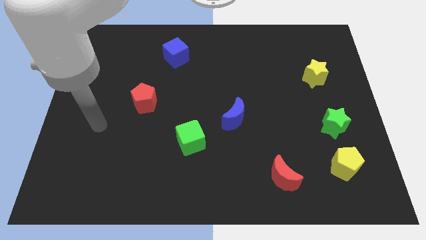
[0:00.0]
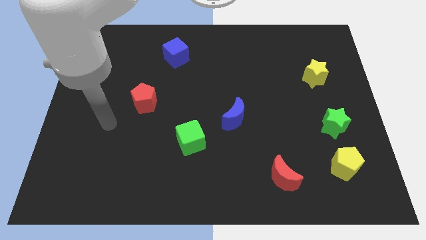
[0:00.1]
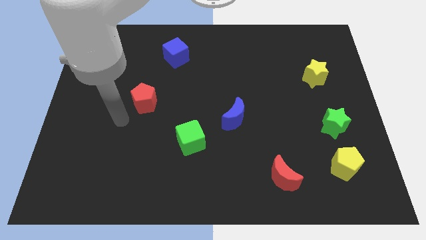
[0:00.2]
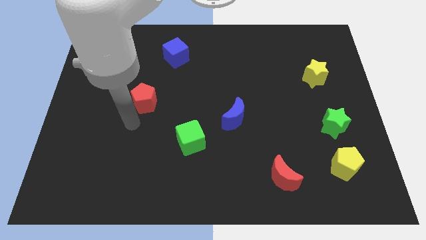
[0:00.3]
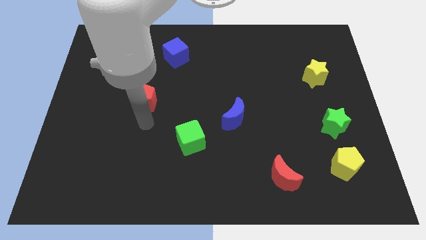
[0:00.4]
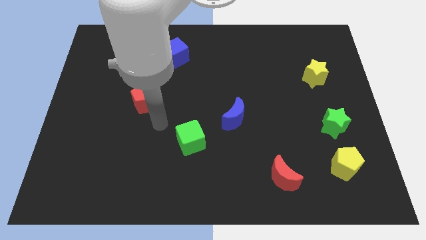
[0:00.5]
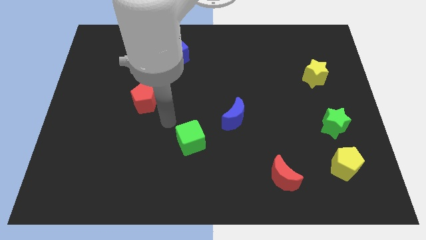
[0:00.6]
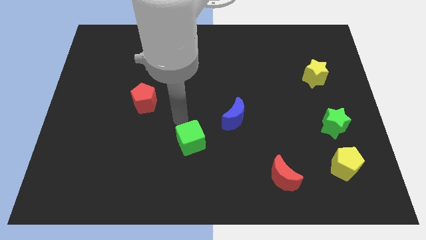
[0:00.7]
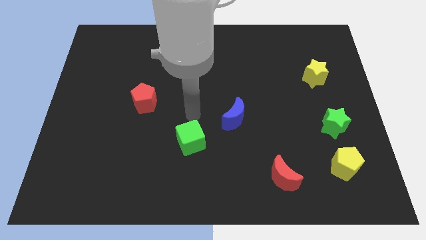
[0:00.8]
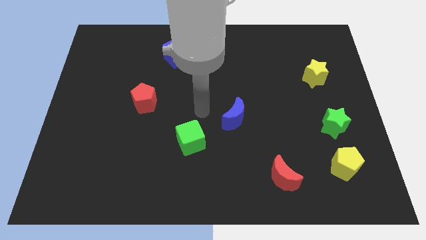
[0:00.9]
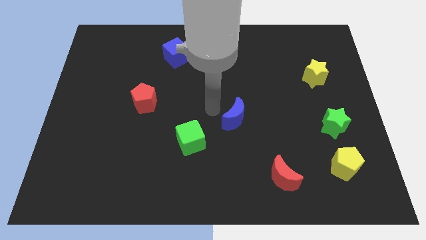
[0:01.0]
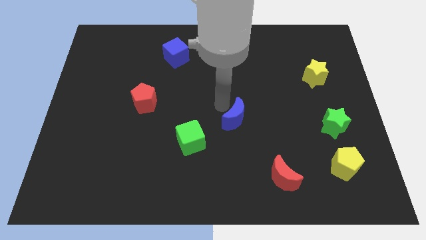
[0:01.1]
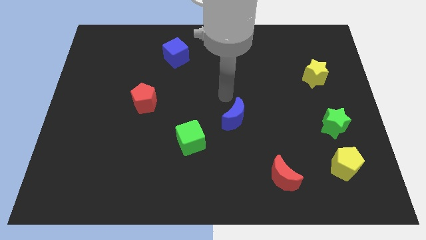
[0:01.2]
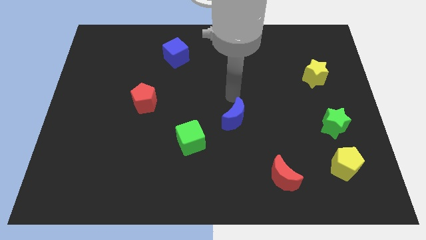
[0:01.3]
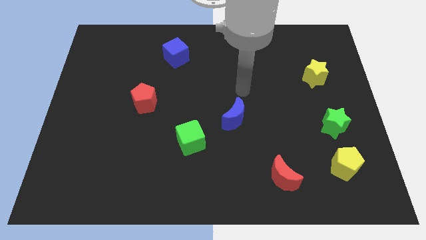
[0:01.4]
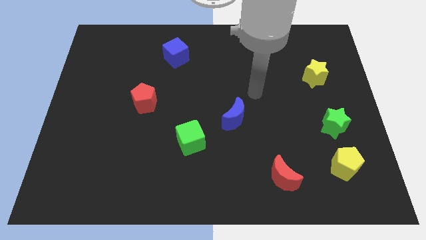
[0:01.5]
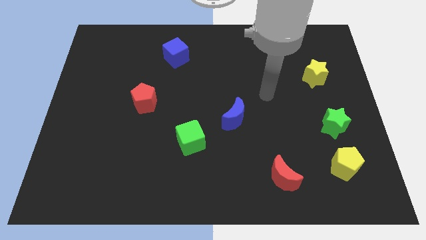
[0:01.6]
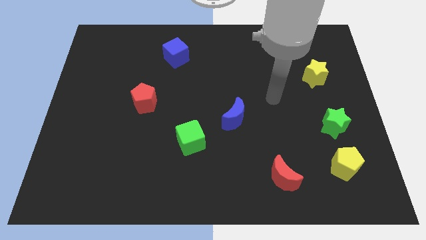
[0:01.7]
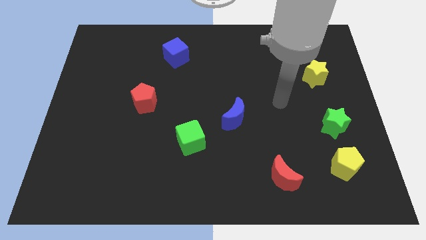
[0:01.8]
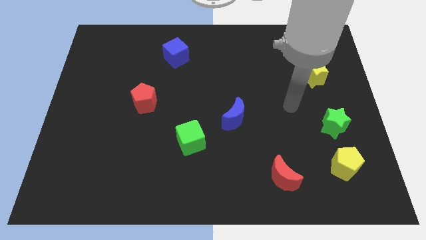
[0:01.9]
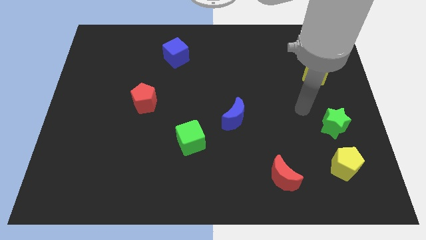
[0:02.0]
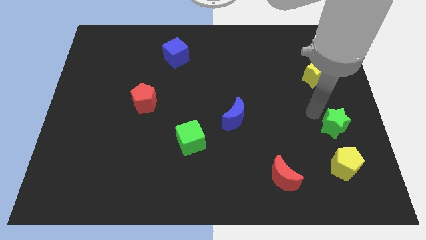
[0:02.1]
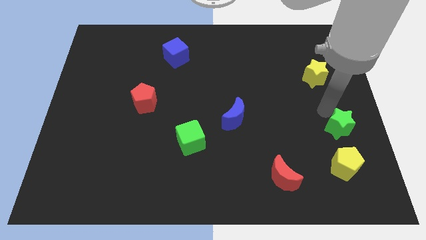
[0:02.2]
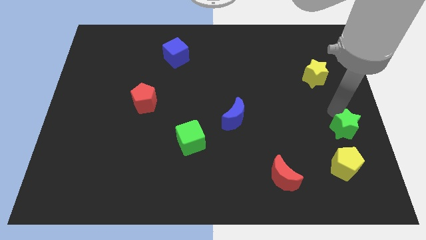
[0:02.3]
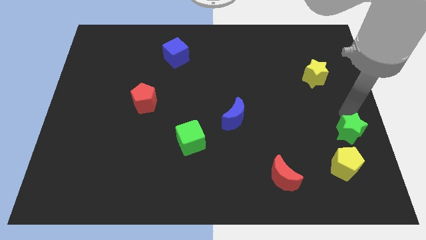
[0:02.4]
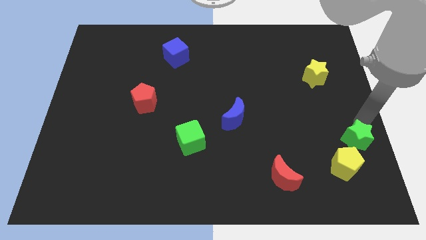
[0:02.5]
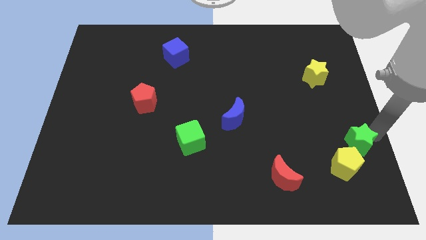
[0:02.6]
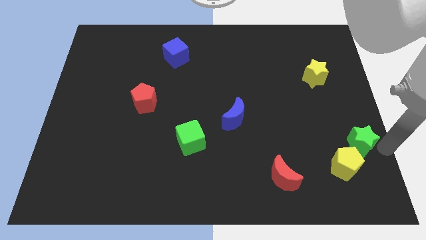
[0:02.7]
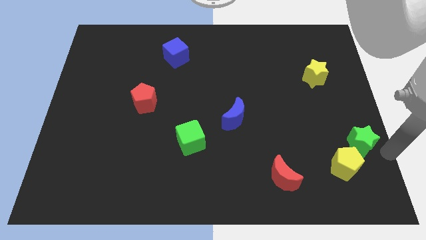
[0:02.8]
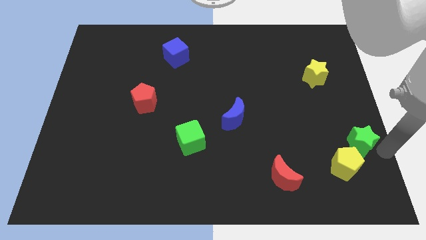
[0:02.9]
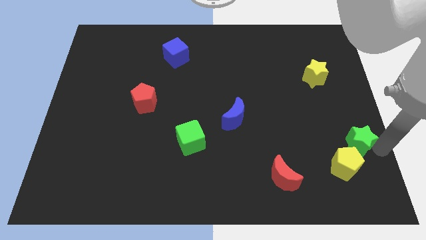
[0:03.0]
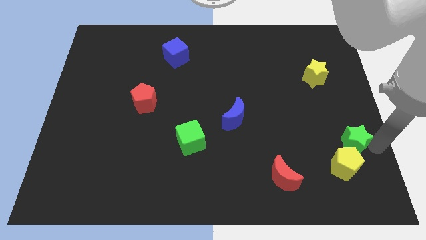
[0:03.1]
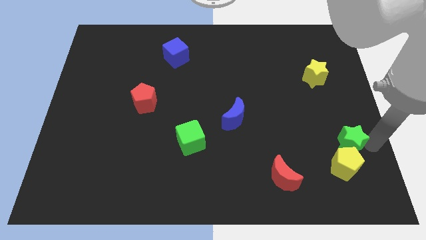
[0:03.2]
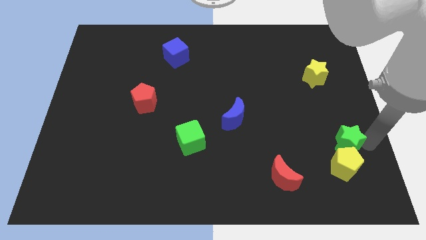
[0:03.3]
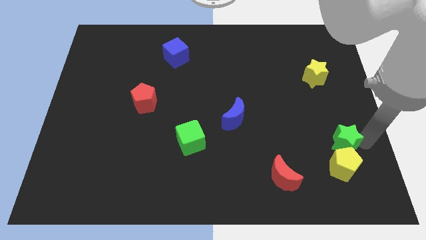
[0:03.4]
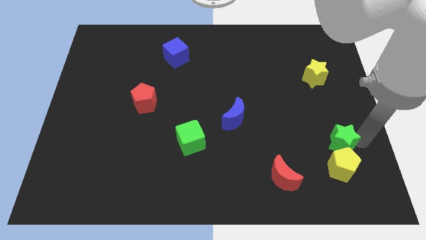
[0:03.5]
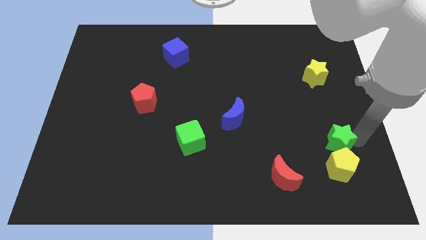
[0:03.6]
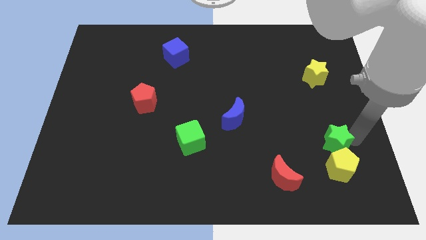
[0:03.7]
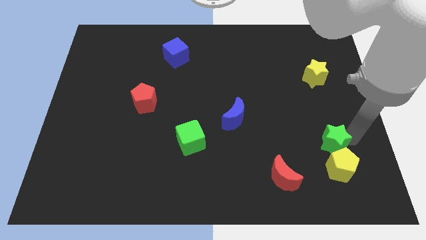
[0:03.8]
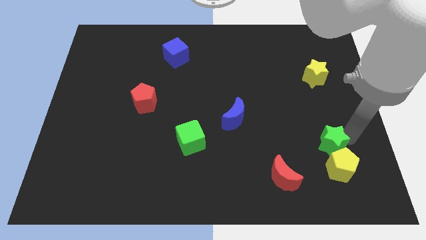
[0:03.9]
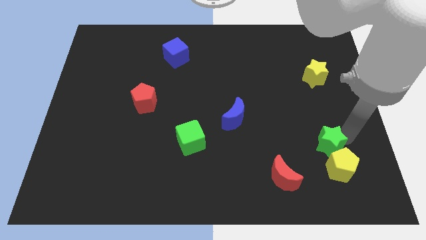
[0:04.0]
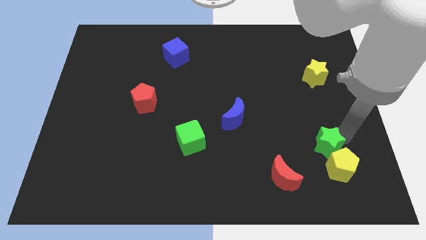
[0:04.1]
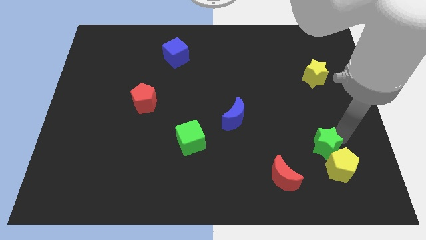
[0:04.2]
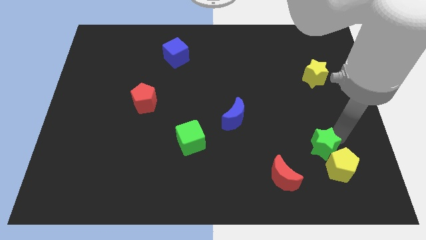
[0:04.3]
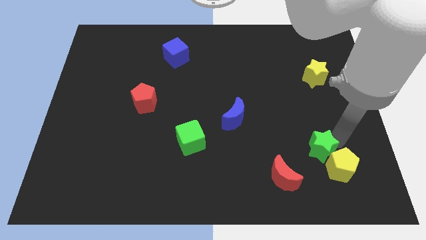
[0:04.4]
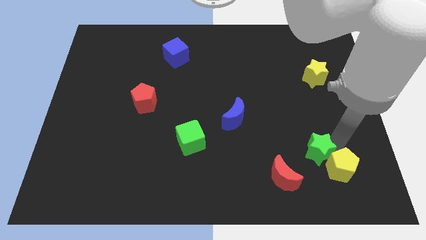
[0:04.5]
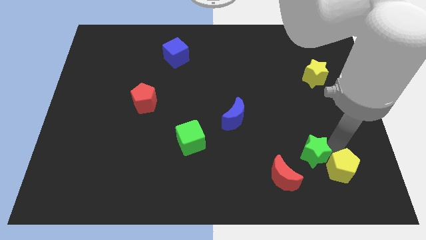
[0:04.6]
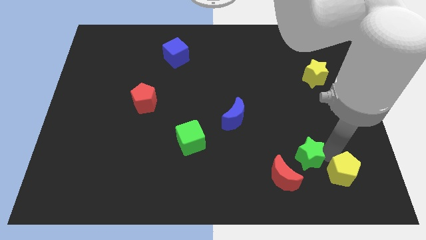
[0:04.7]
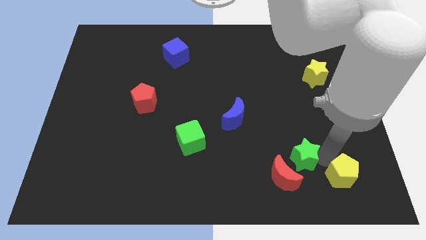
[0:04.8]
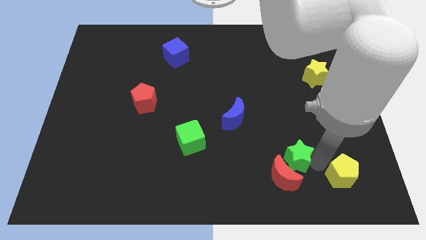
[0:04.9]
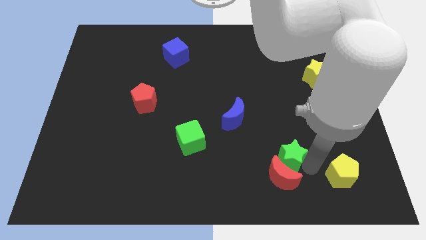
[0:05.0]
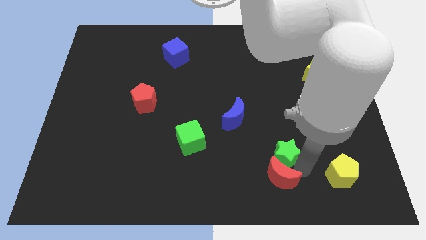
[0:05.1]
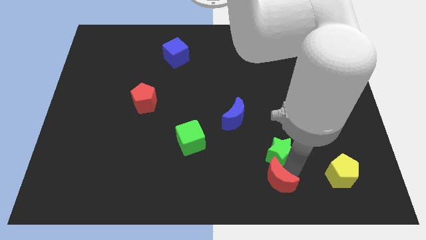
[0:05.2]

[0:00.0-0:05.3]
move the green star to the bottom right of the blue moon
